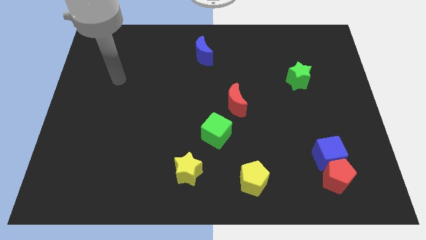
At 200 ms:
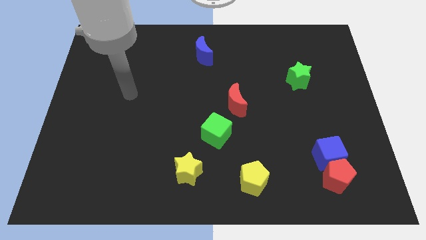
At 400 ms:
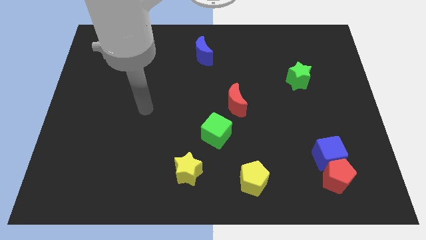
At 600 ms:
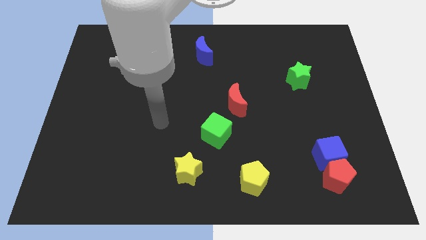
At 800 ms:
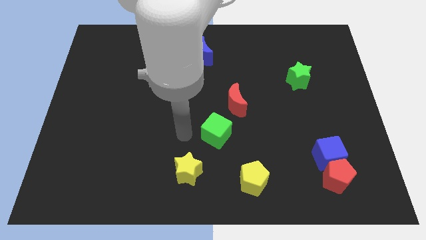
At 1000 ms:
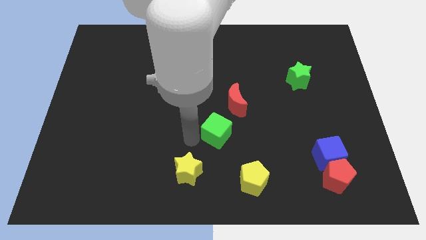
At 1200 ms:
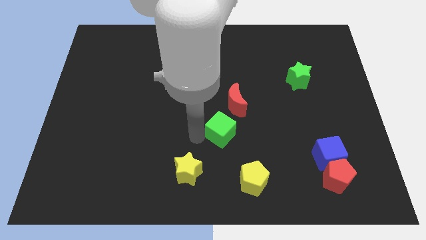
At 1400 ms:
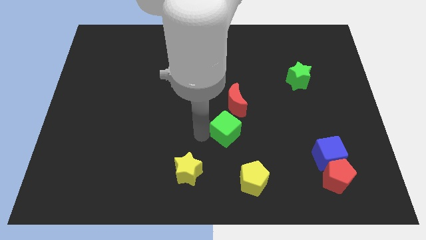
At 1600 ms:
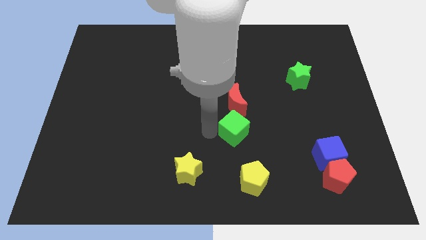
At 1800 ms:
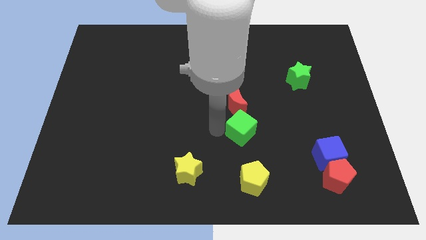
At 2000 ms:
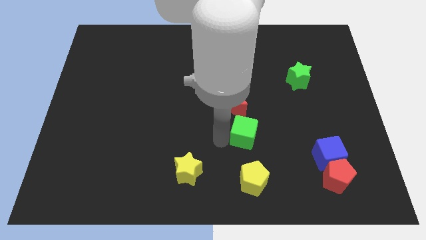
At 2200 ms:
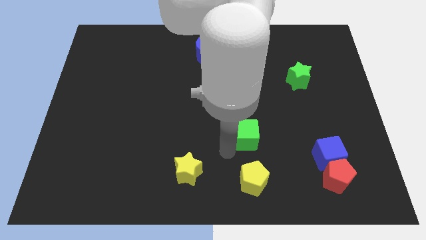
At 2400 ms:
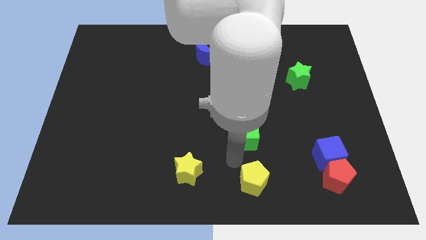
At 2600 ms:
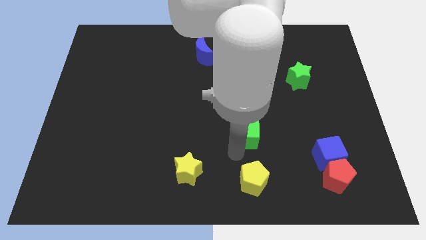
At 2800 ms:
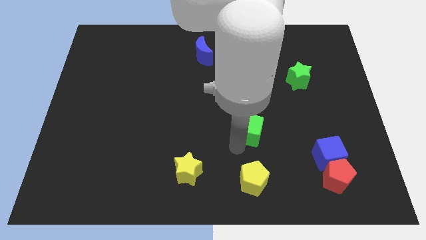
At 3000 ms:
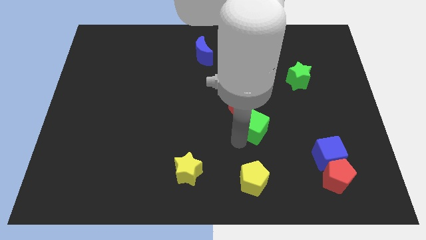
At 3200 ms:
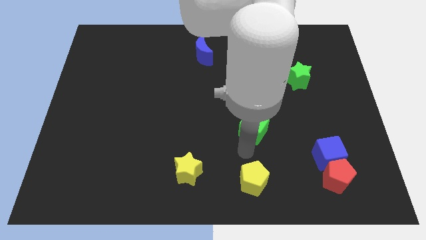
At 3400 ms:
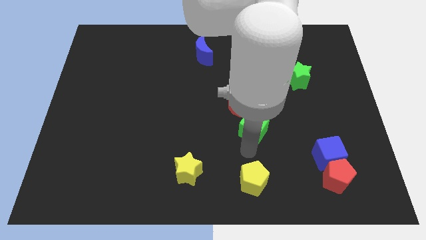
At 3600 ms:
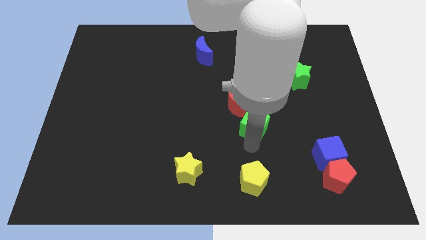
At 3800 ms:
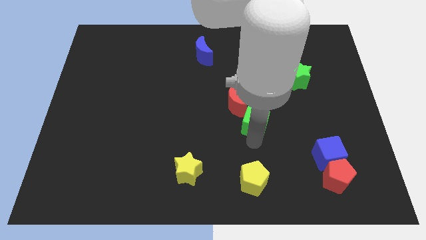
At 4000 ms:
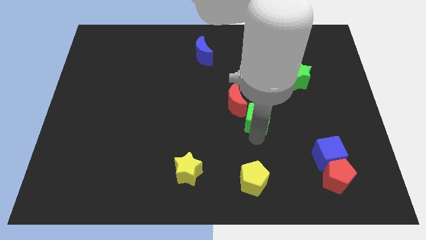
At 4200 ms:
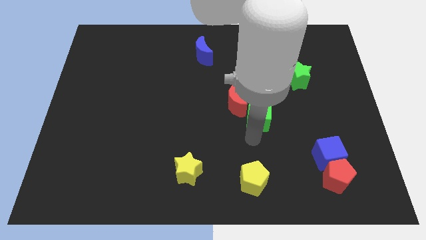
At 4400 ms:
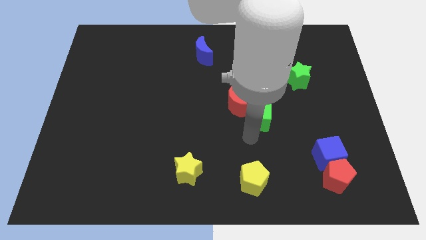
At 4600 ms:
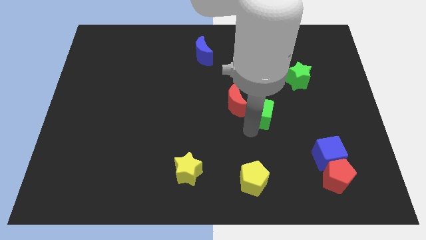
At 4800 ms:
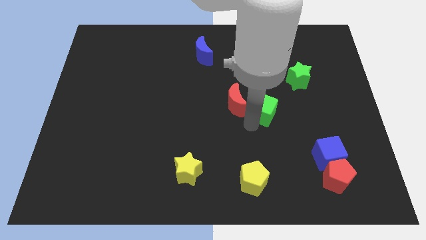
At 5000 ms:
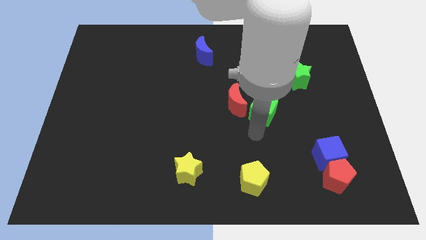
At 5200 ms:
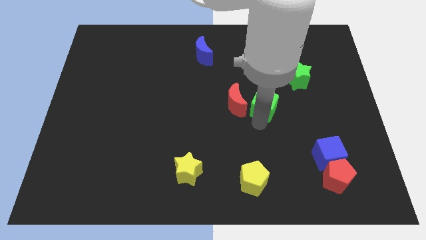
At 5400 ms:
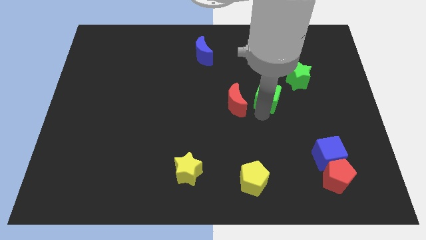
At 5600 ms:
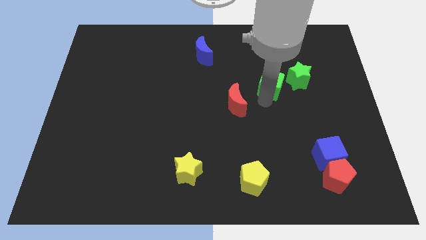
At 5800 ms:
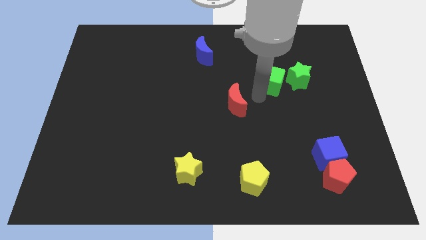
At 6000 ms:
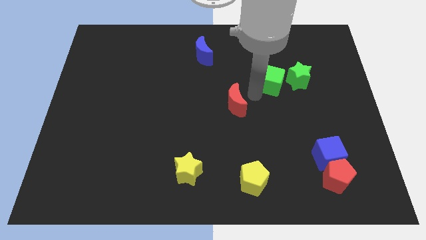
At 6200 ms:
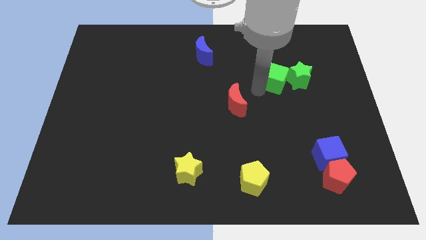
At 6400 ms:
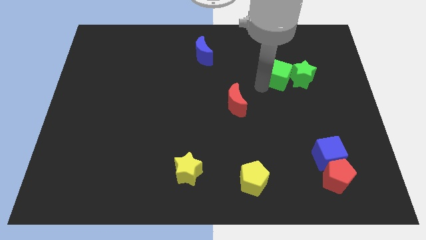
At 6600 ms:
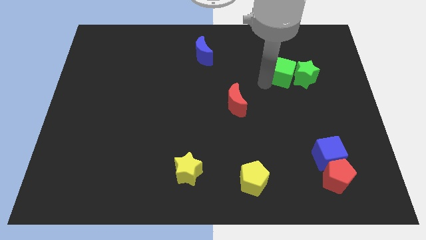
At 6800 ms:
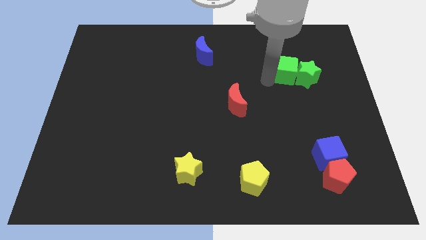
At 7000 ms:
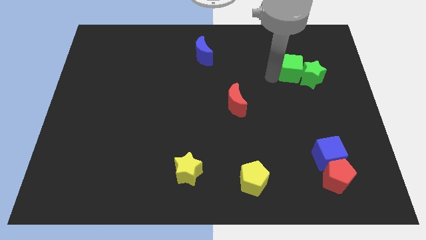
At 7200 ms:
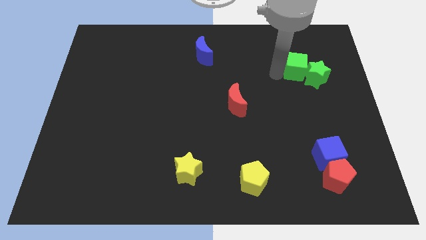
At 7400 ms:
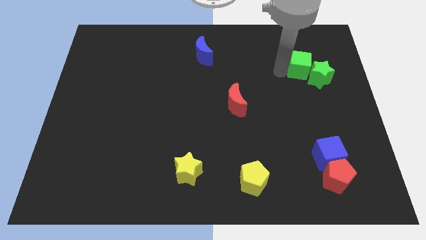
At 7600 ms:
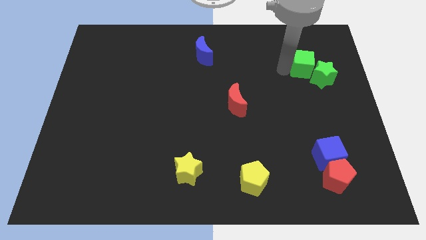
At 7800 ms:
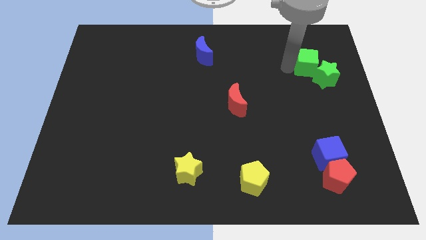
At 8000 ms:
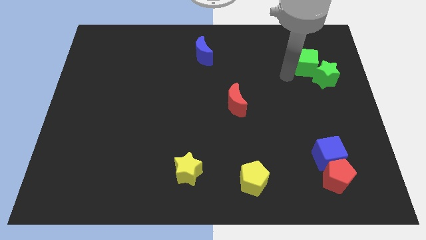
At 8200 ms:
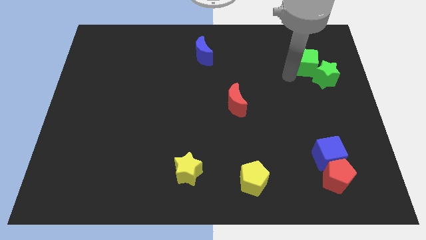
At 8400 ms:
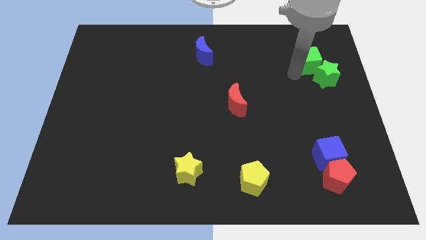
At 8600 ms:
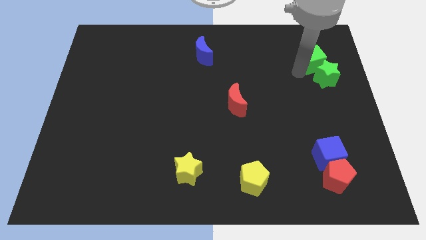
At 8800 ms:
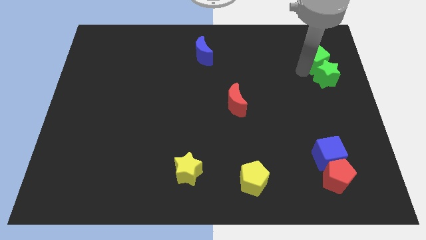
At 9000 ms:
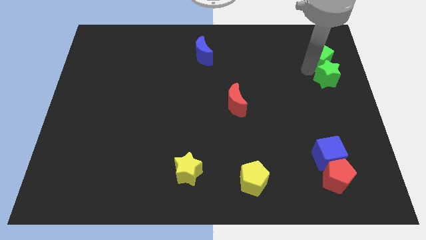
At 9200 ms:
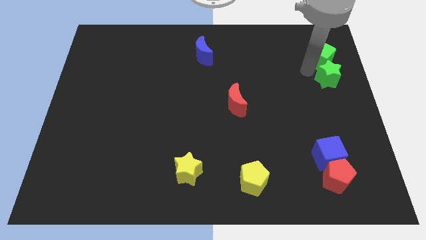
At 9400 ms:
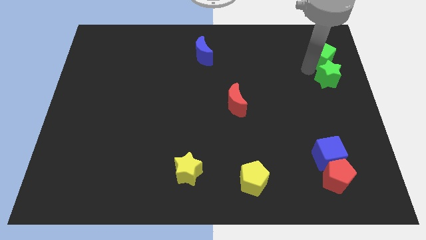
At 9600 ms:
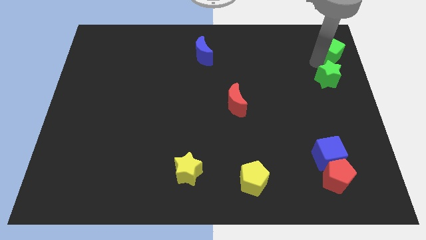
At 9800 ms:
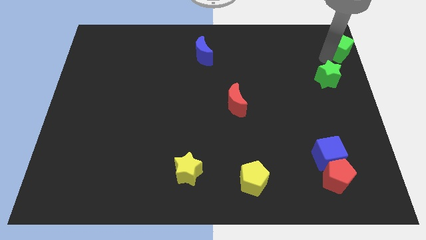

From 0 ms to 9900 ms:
move the green cube to the upper right corner

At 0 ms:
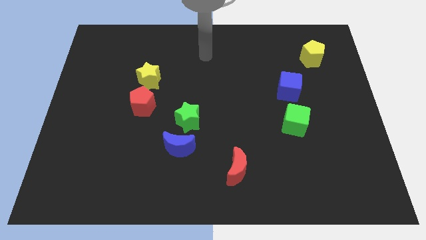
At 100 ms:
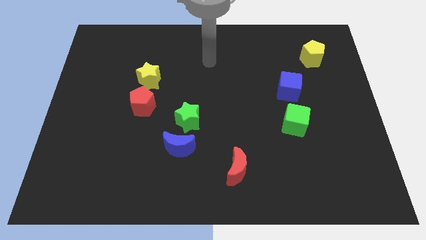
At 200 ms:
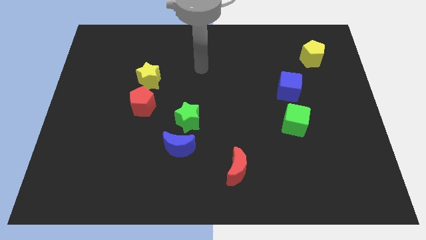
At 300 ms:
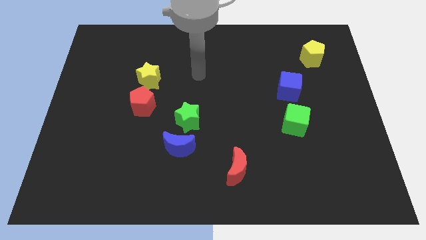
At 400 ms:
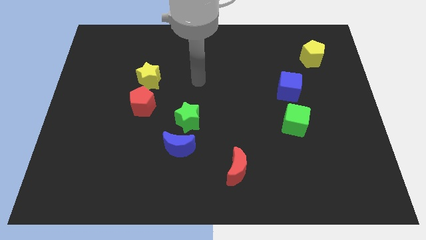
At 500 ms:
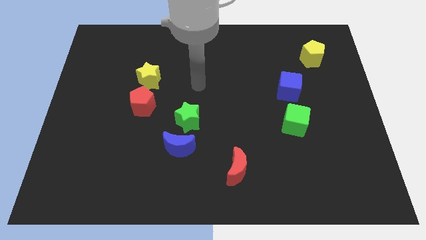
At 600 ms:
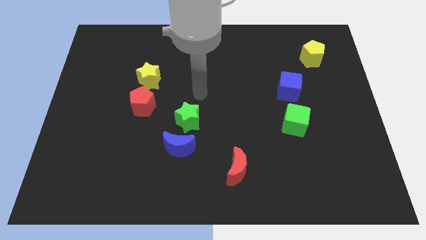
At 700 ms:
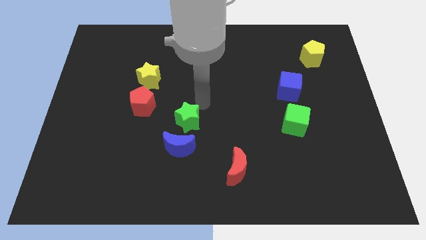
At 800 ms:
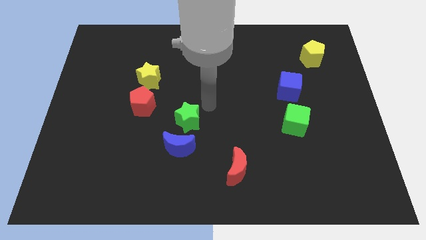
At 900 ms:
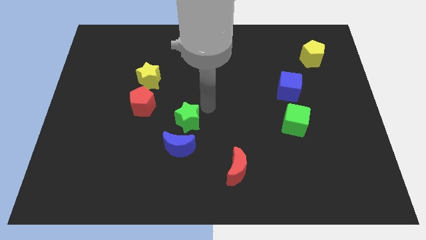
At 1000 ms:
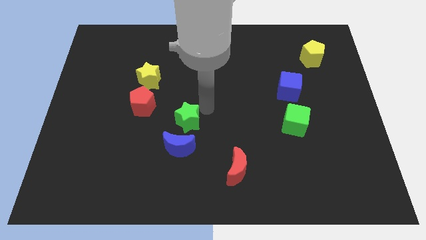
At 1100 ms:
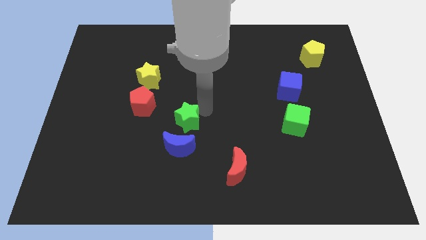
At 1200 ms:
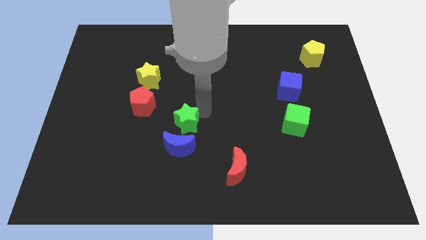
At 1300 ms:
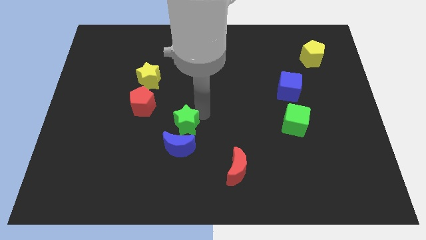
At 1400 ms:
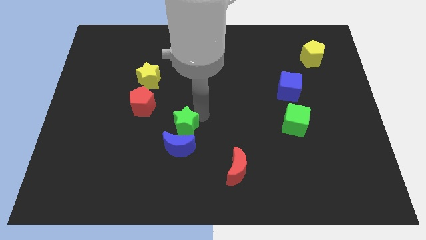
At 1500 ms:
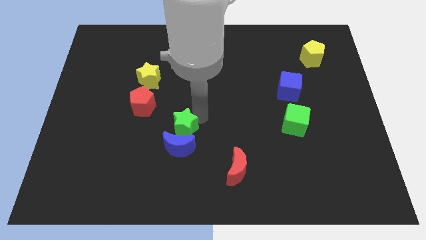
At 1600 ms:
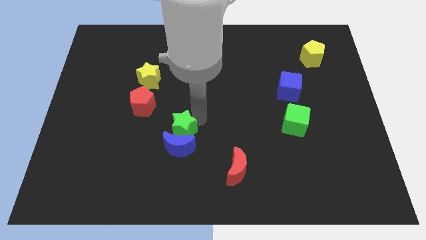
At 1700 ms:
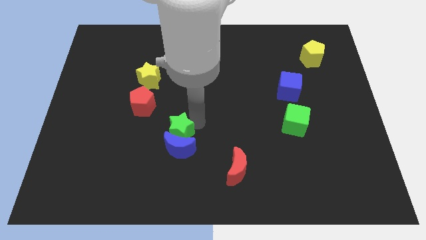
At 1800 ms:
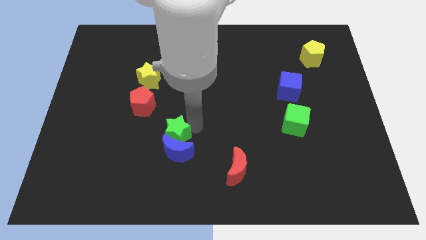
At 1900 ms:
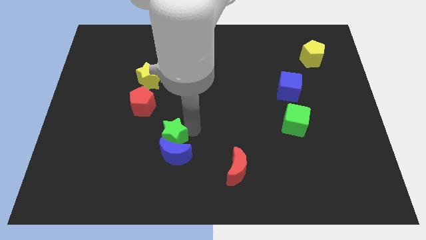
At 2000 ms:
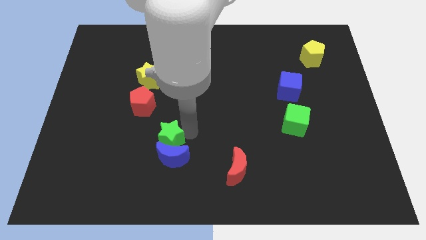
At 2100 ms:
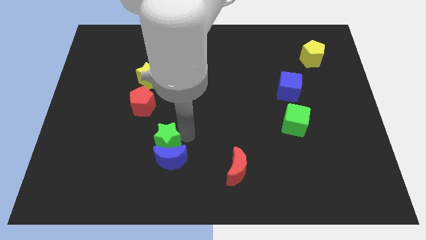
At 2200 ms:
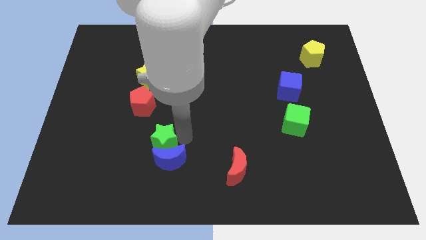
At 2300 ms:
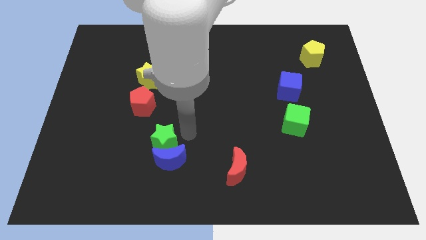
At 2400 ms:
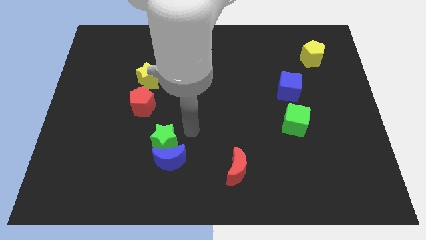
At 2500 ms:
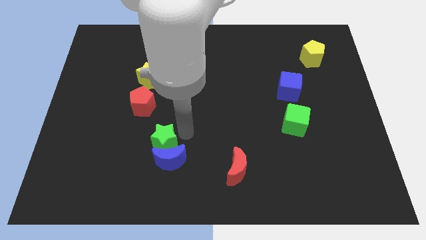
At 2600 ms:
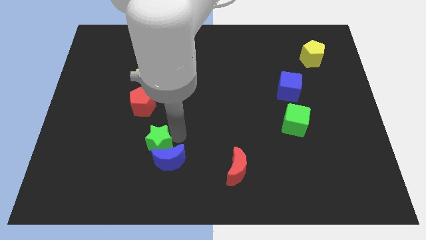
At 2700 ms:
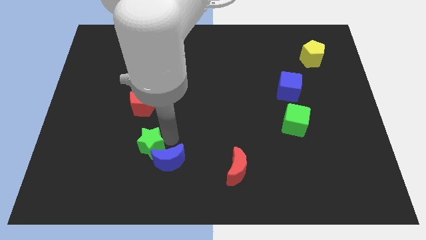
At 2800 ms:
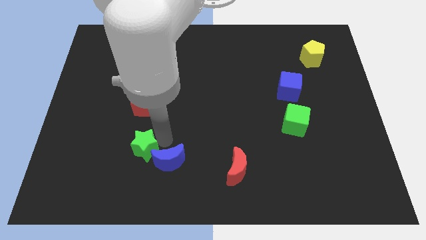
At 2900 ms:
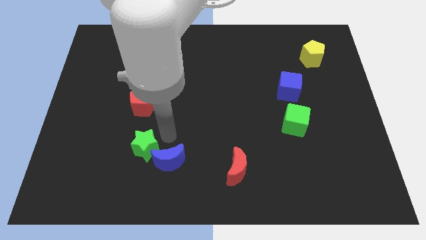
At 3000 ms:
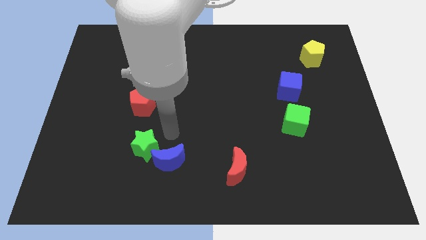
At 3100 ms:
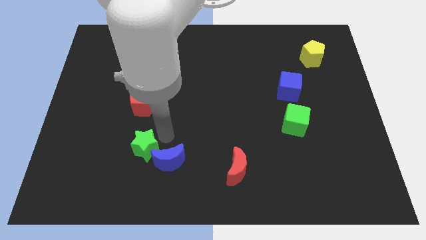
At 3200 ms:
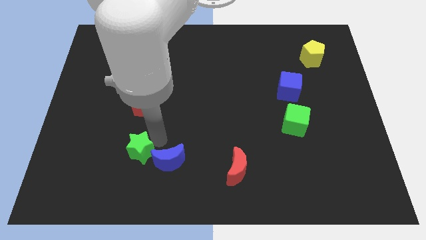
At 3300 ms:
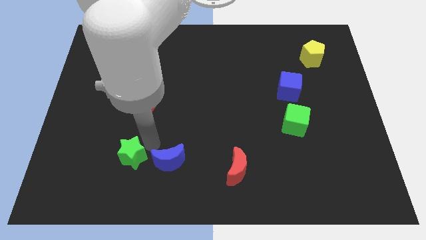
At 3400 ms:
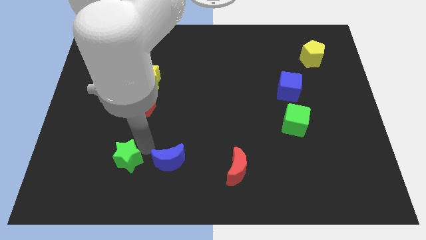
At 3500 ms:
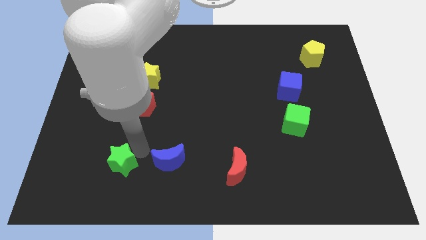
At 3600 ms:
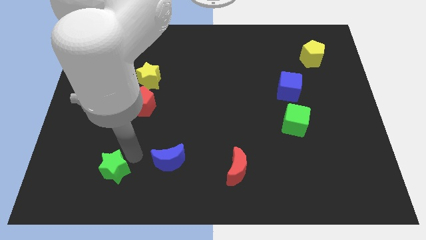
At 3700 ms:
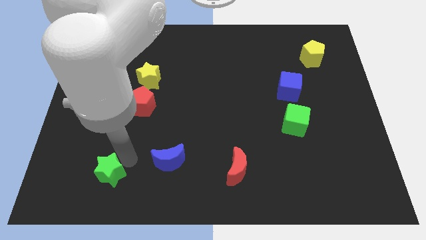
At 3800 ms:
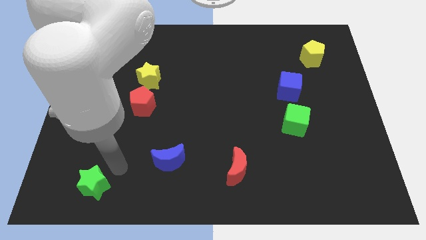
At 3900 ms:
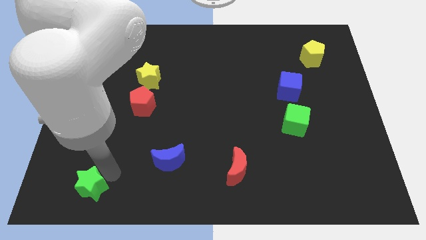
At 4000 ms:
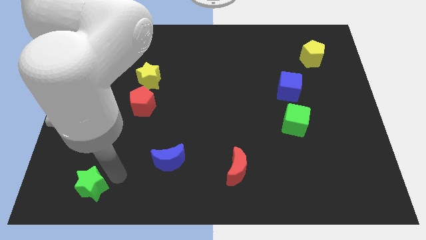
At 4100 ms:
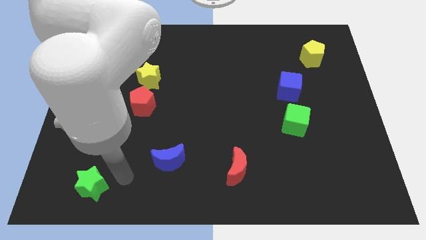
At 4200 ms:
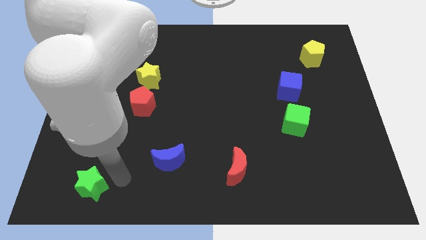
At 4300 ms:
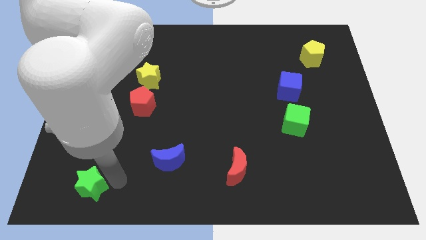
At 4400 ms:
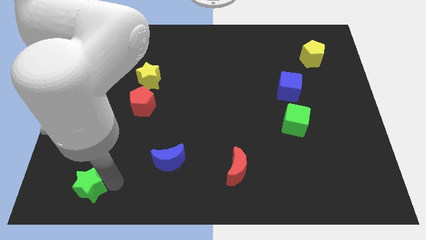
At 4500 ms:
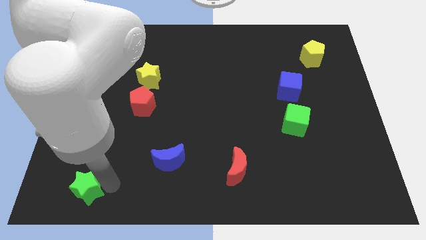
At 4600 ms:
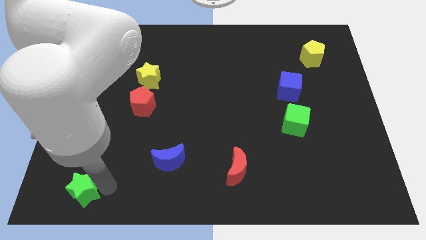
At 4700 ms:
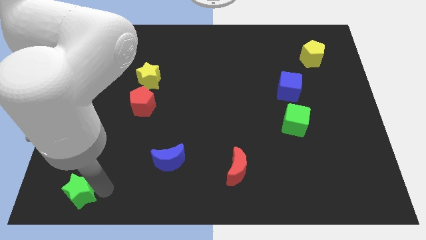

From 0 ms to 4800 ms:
push the green star to the bottom left
